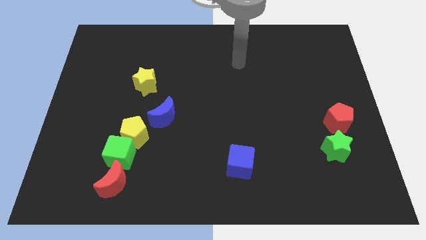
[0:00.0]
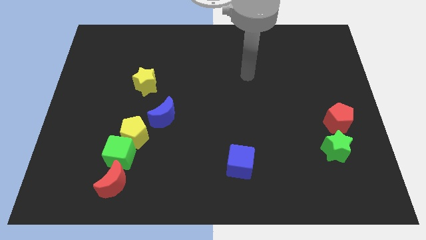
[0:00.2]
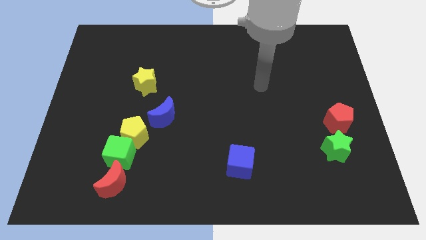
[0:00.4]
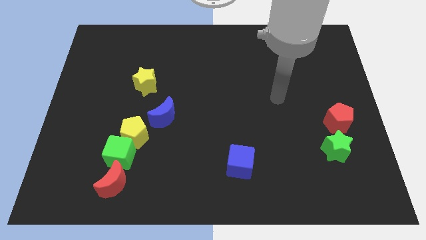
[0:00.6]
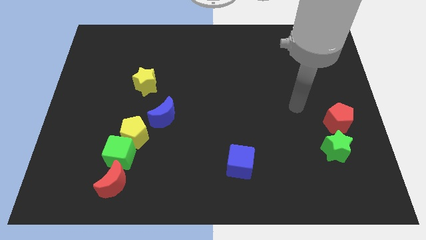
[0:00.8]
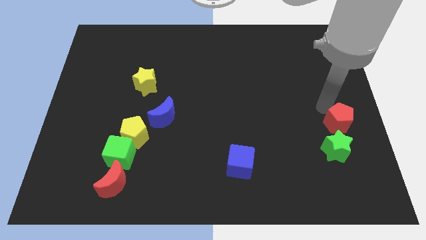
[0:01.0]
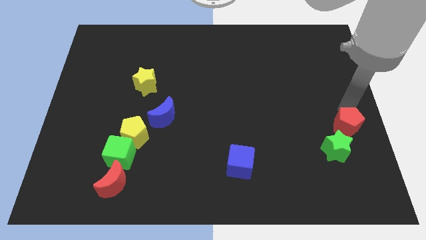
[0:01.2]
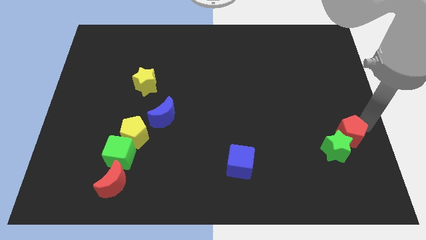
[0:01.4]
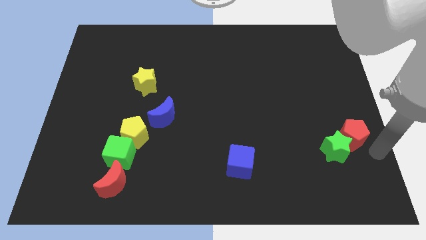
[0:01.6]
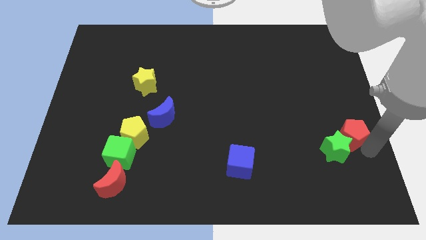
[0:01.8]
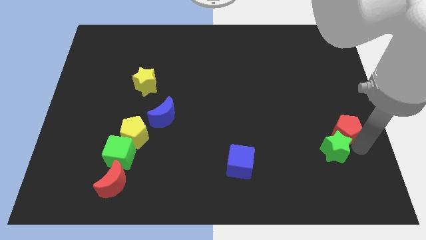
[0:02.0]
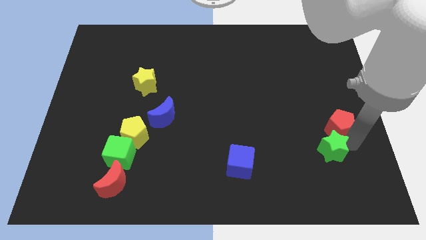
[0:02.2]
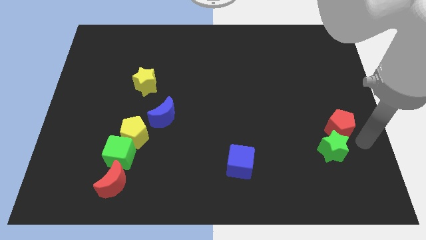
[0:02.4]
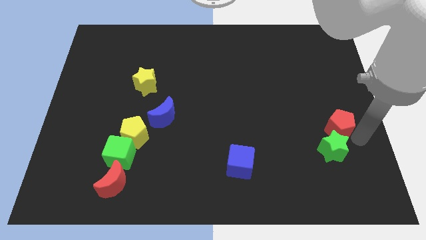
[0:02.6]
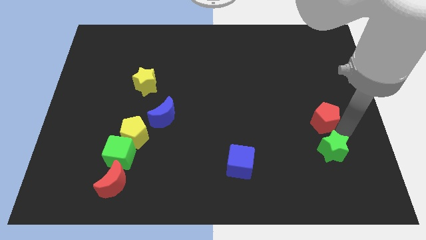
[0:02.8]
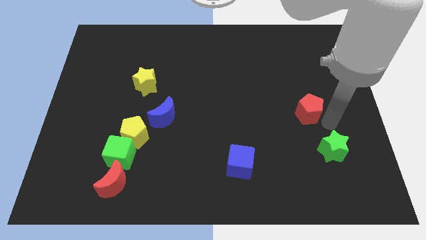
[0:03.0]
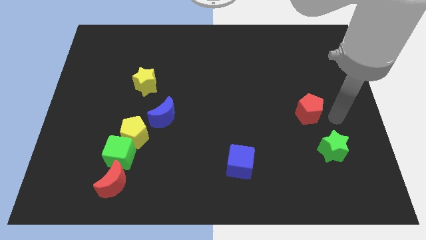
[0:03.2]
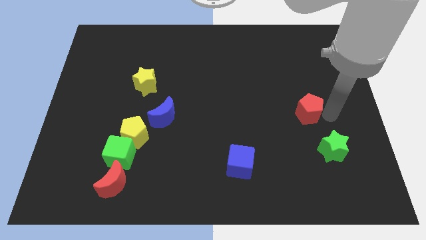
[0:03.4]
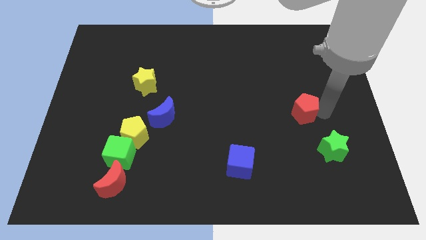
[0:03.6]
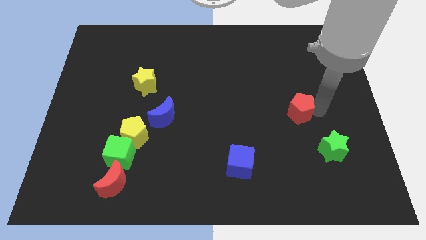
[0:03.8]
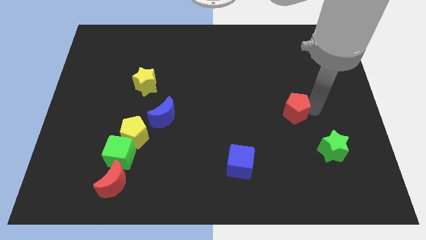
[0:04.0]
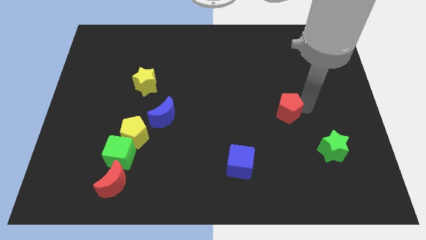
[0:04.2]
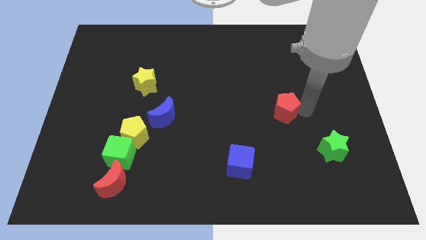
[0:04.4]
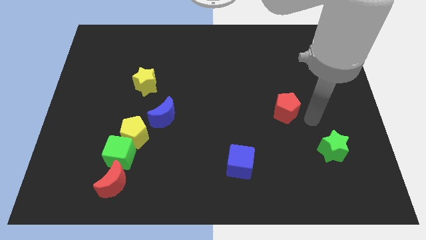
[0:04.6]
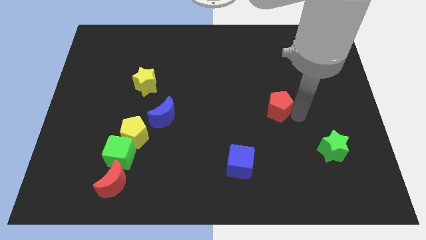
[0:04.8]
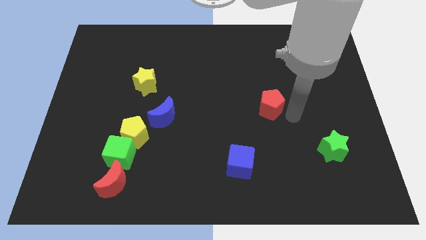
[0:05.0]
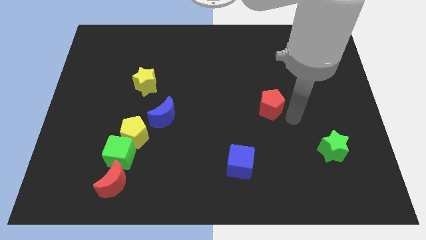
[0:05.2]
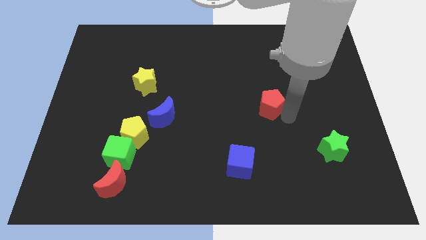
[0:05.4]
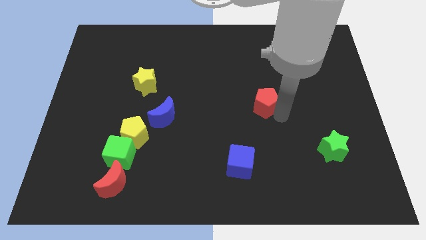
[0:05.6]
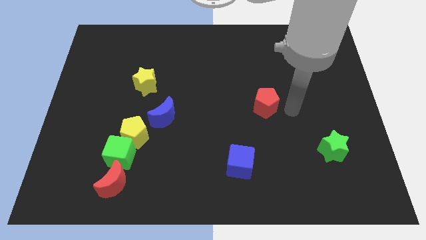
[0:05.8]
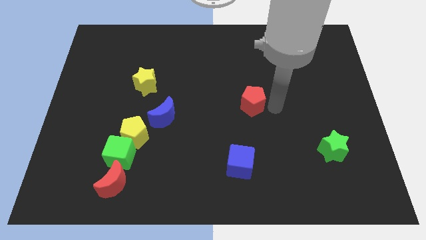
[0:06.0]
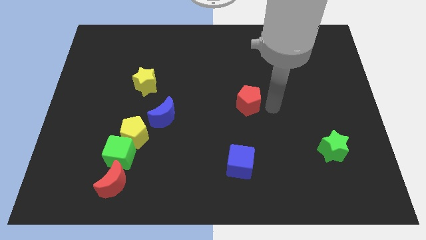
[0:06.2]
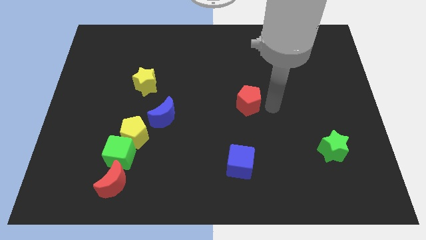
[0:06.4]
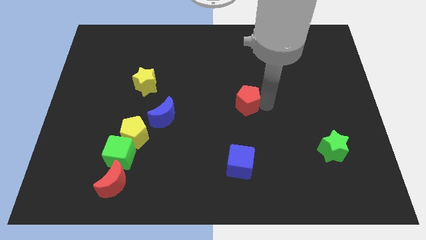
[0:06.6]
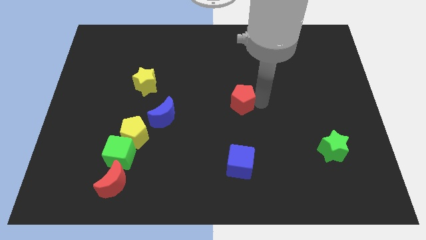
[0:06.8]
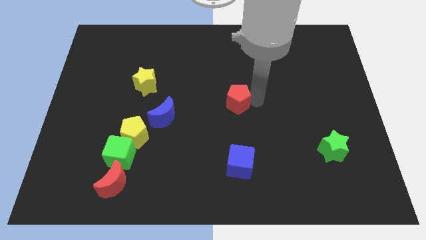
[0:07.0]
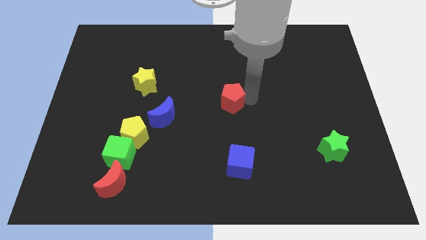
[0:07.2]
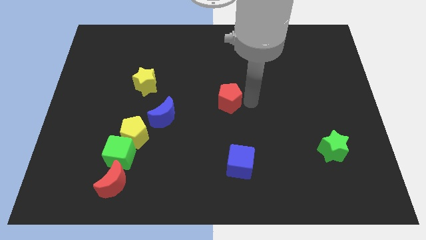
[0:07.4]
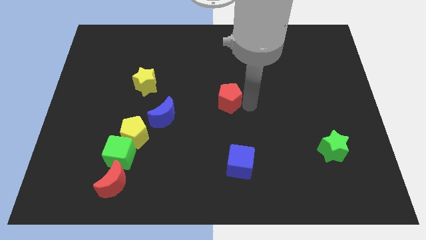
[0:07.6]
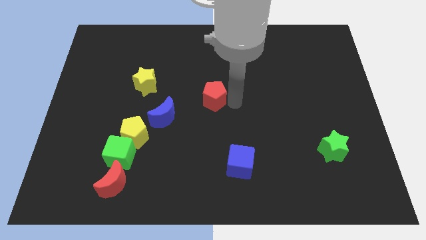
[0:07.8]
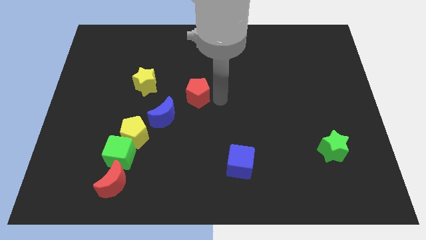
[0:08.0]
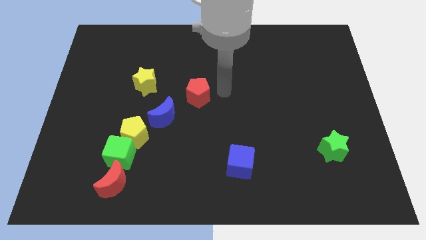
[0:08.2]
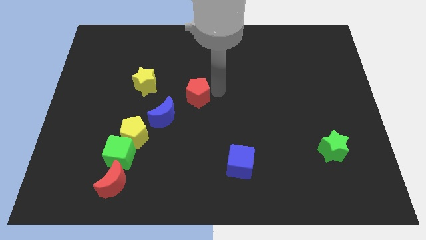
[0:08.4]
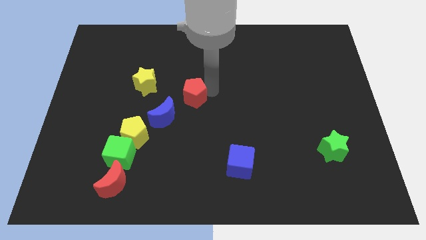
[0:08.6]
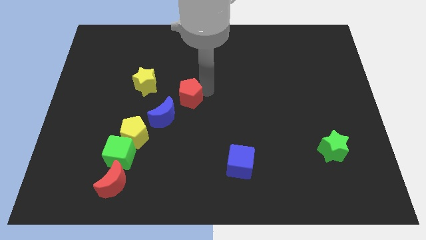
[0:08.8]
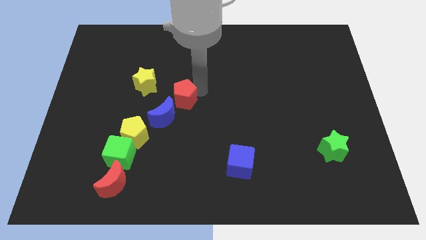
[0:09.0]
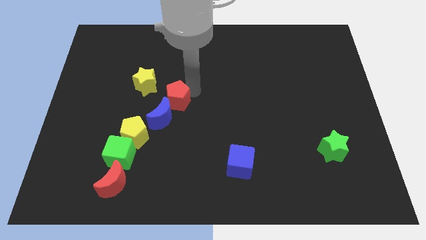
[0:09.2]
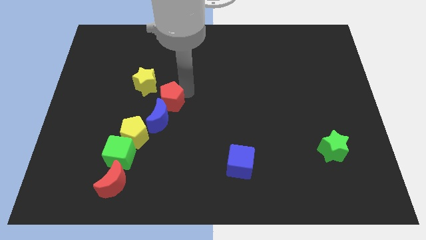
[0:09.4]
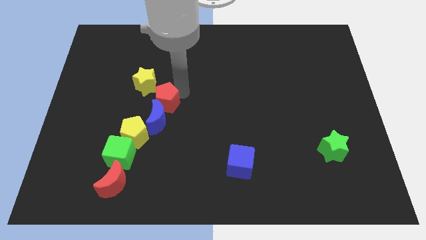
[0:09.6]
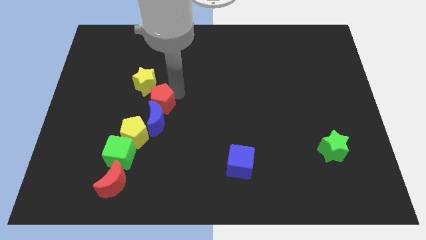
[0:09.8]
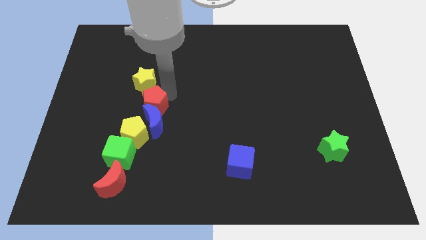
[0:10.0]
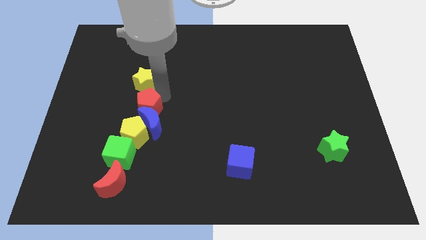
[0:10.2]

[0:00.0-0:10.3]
slide the red pentagon to the top side of the green cube

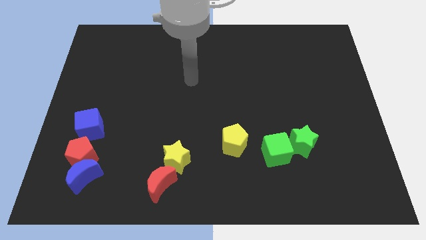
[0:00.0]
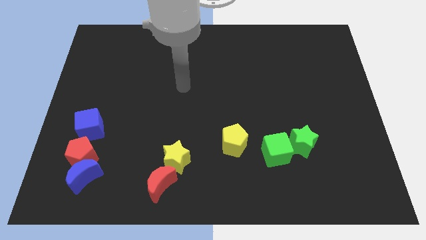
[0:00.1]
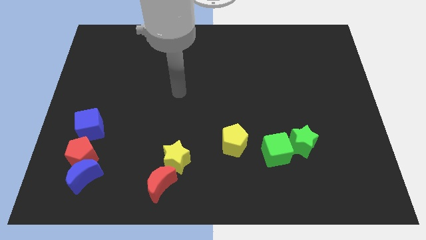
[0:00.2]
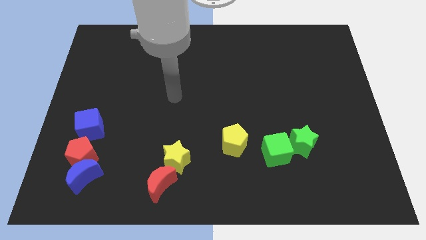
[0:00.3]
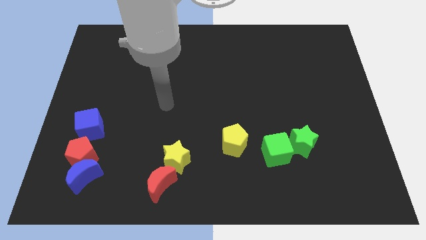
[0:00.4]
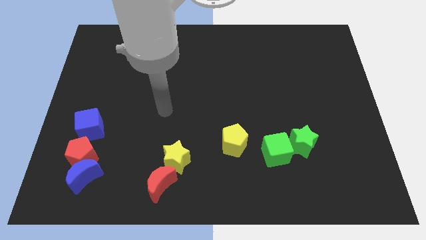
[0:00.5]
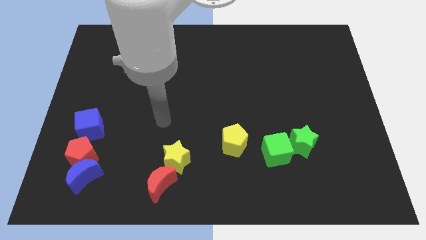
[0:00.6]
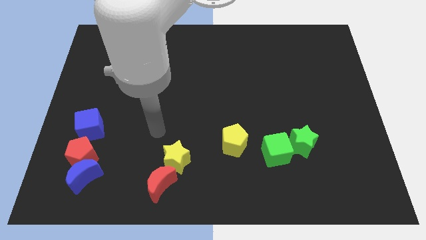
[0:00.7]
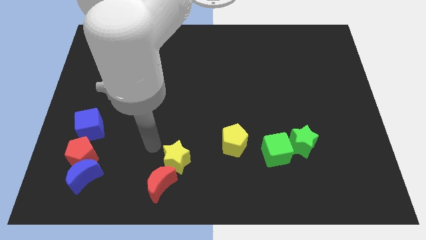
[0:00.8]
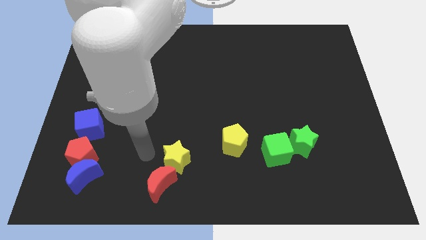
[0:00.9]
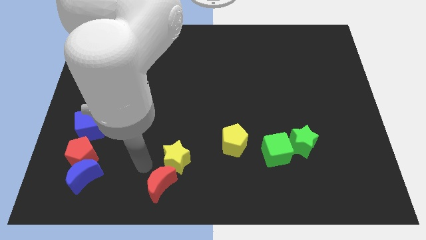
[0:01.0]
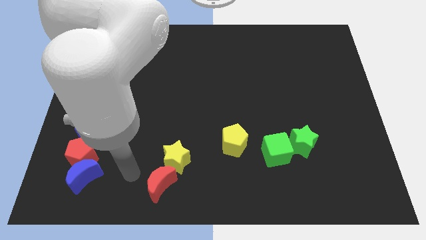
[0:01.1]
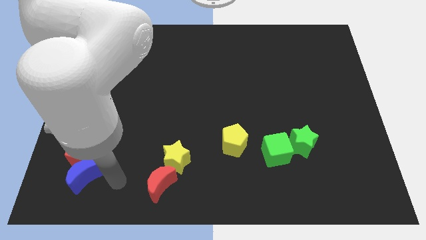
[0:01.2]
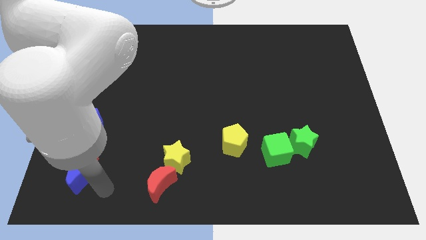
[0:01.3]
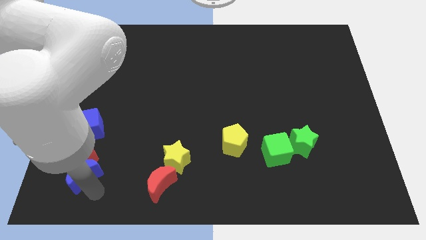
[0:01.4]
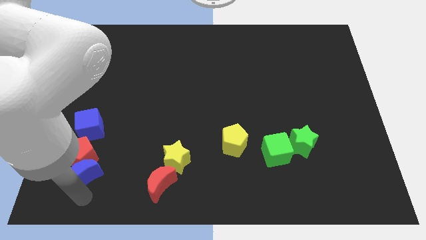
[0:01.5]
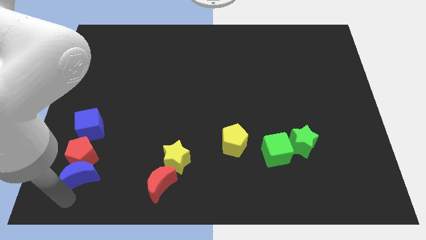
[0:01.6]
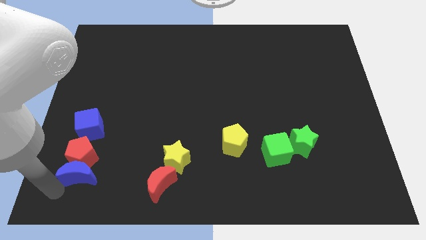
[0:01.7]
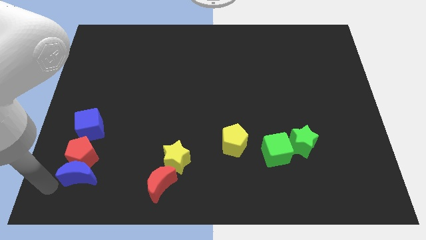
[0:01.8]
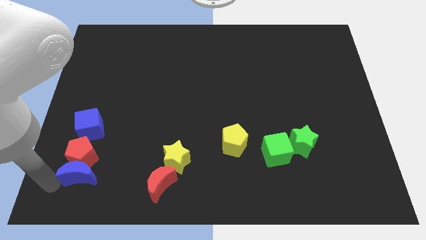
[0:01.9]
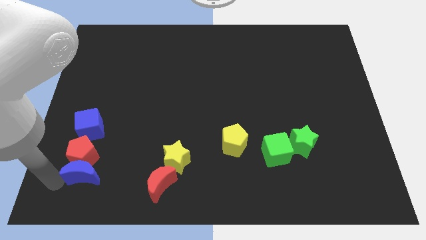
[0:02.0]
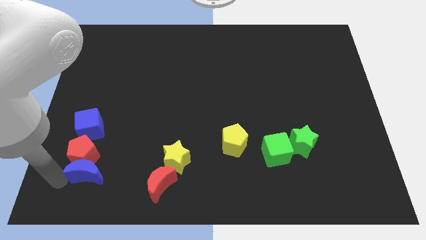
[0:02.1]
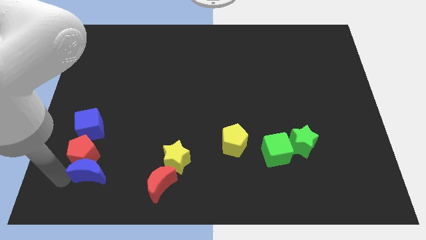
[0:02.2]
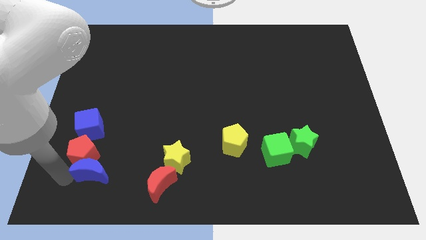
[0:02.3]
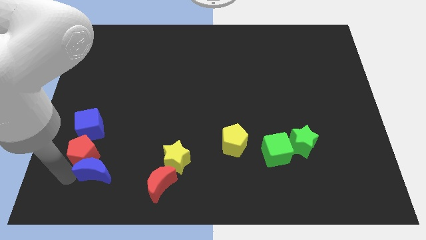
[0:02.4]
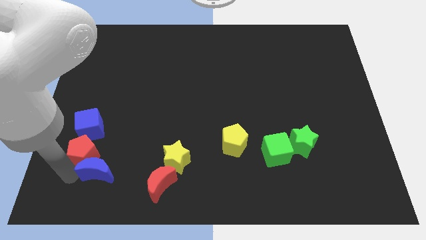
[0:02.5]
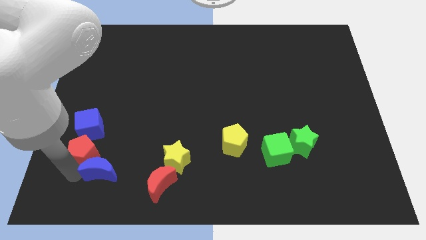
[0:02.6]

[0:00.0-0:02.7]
slide the blue moon just left of the yellow star
